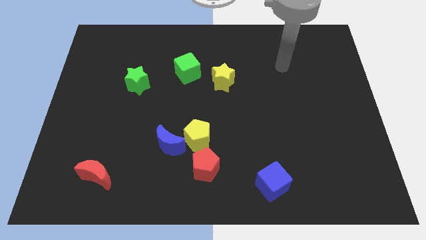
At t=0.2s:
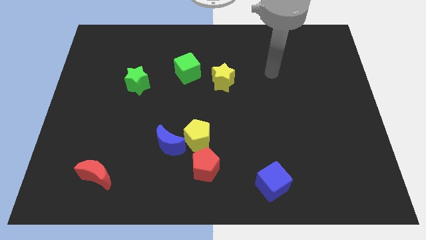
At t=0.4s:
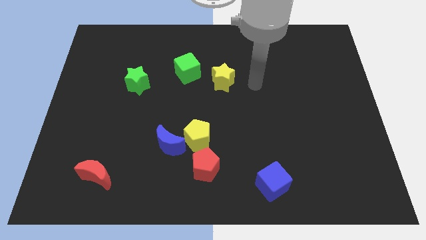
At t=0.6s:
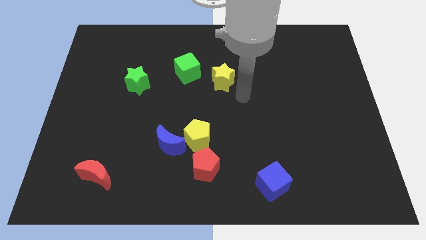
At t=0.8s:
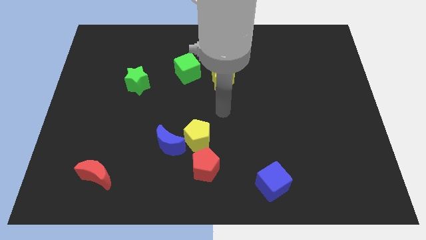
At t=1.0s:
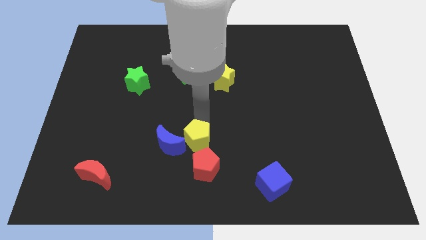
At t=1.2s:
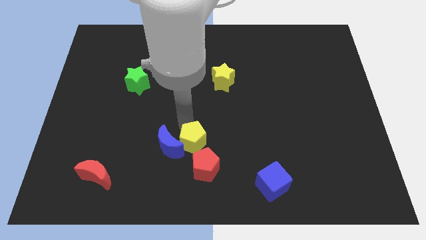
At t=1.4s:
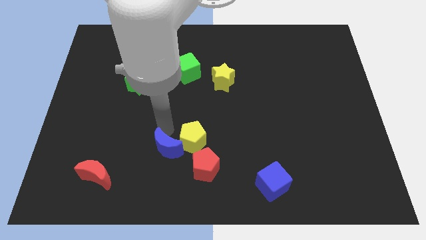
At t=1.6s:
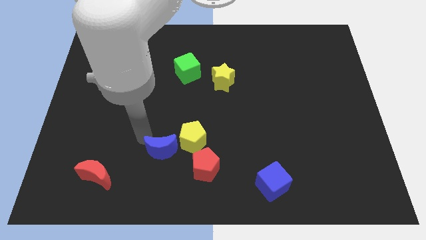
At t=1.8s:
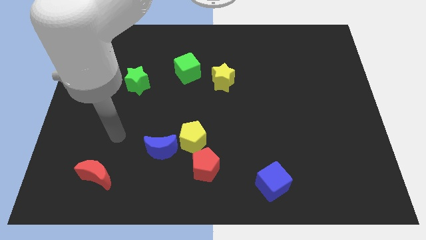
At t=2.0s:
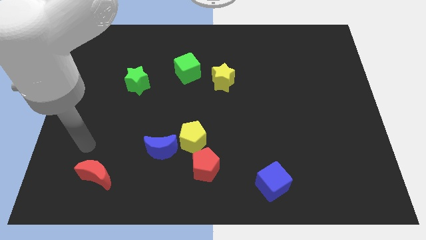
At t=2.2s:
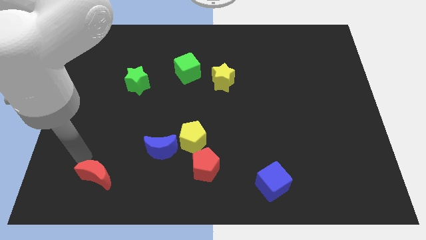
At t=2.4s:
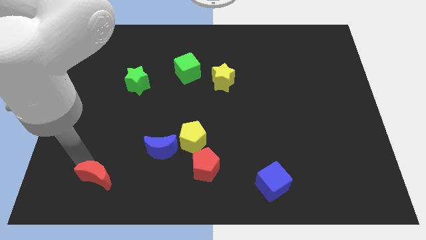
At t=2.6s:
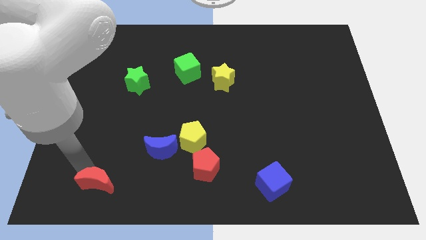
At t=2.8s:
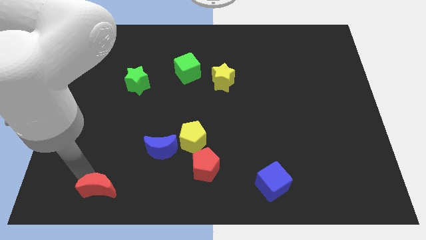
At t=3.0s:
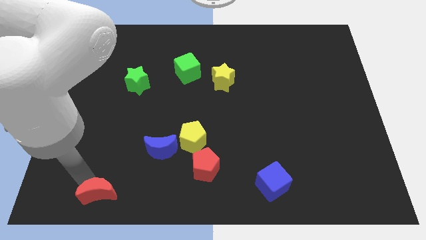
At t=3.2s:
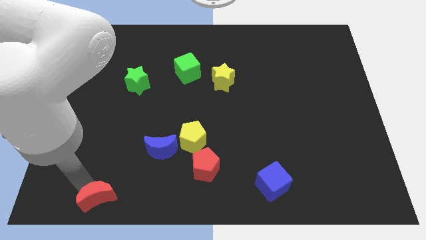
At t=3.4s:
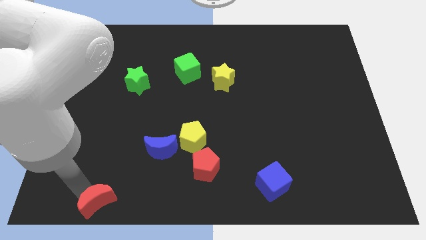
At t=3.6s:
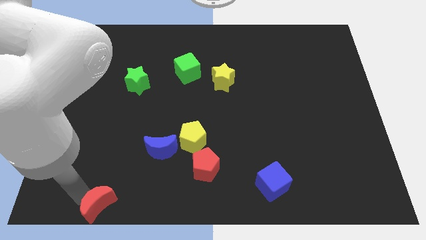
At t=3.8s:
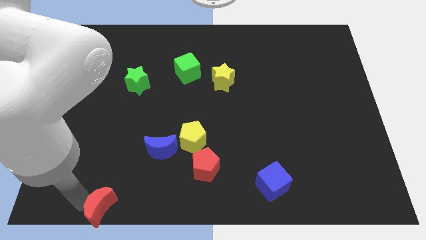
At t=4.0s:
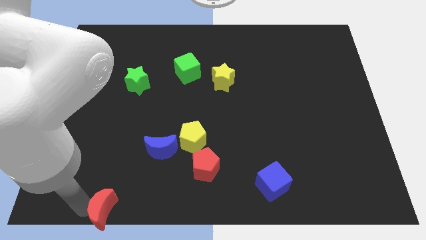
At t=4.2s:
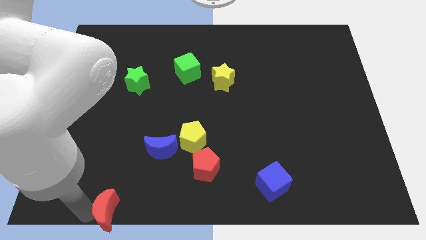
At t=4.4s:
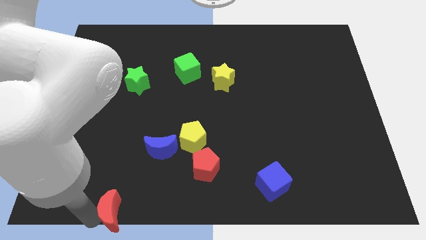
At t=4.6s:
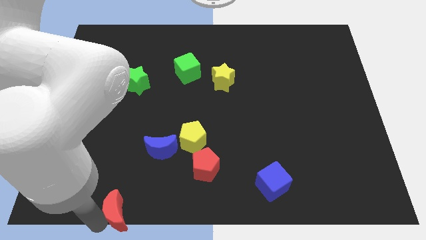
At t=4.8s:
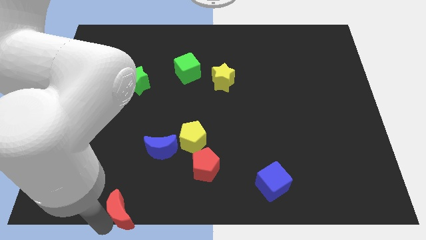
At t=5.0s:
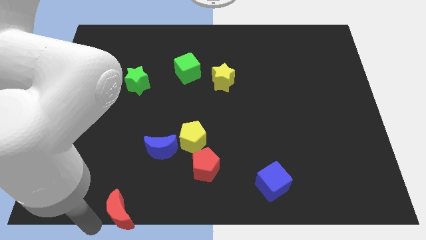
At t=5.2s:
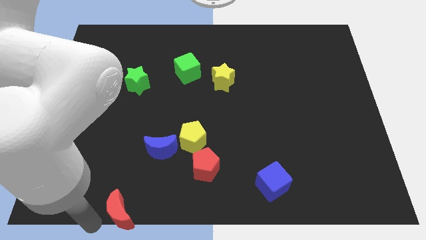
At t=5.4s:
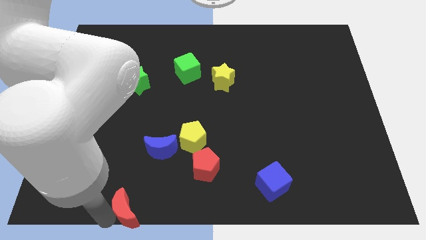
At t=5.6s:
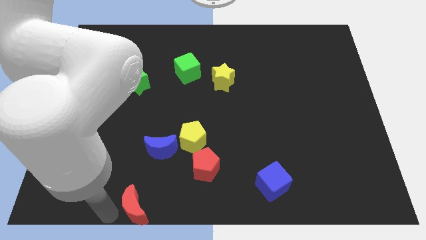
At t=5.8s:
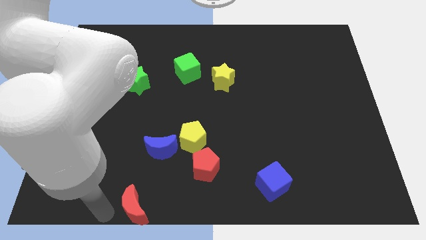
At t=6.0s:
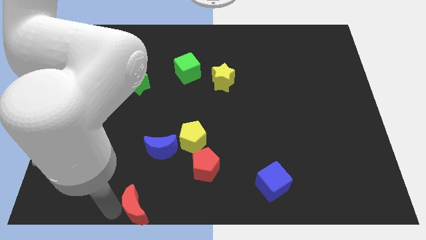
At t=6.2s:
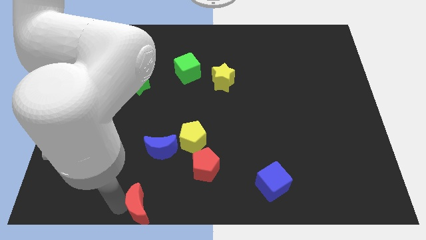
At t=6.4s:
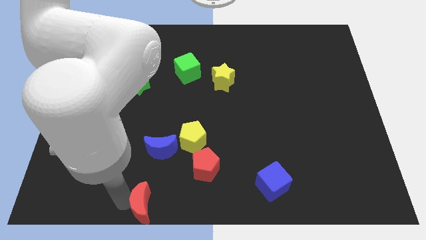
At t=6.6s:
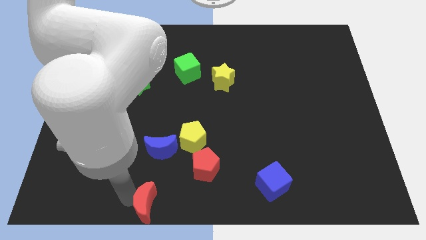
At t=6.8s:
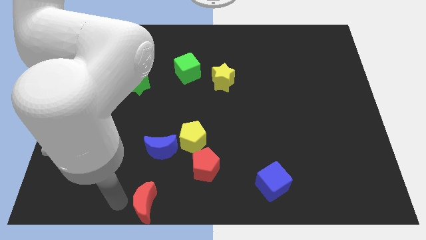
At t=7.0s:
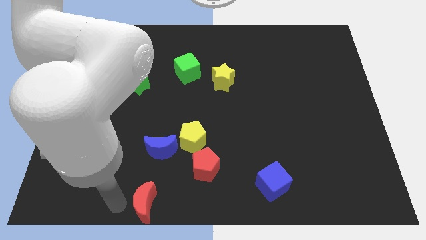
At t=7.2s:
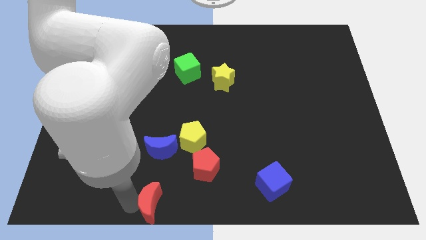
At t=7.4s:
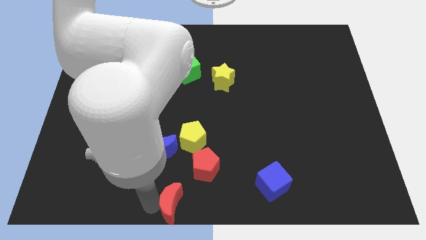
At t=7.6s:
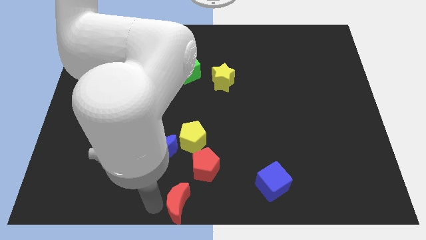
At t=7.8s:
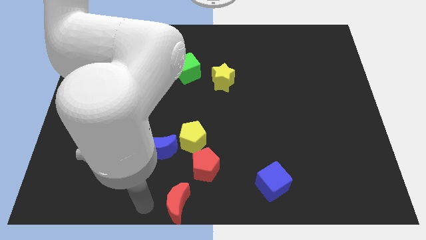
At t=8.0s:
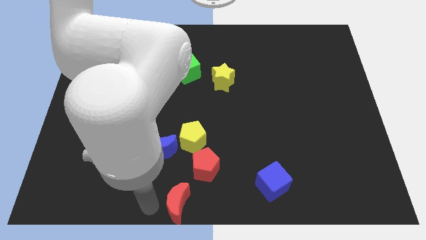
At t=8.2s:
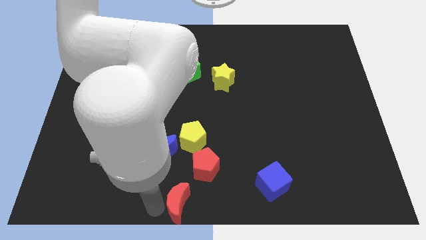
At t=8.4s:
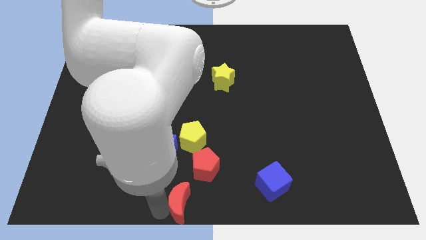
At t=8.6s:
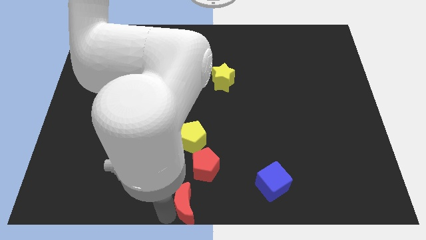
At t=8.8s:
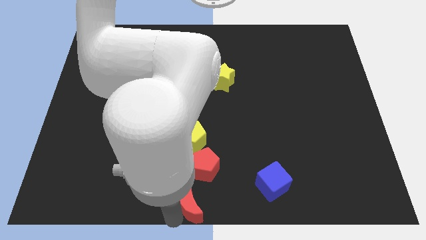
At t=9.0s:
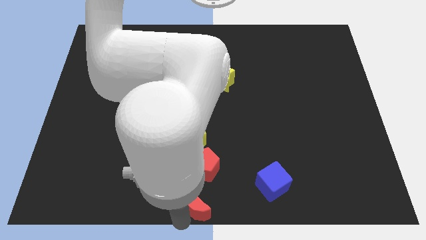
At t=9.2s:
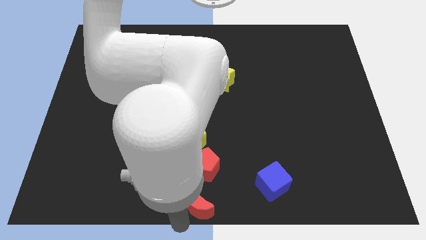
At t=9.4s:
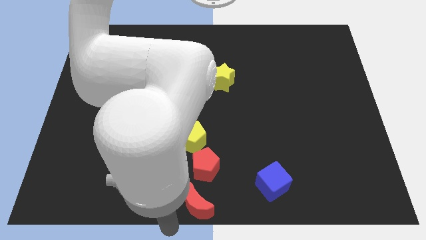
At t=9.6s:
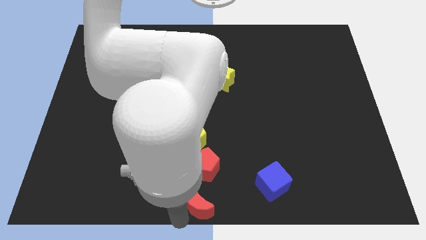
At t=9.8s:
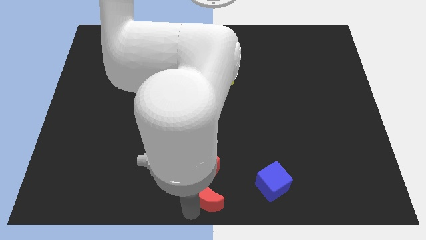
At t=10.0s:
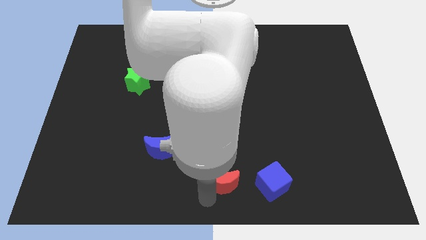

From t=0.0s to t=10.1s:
move the red moon to the right side of the red pentagon

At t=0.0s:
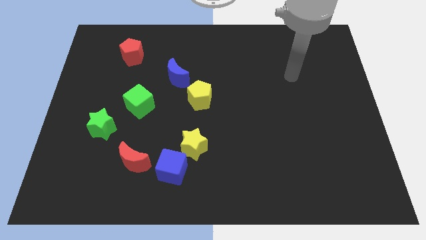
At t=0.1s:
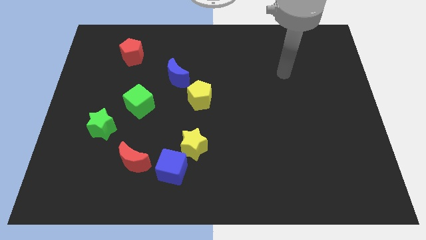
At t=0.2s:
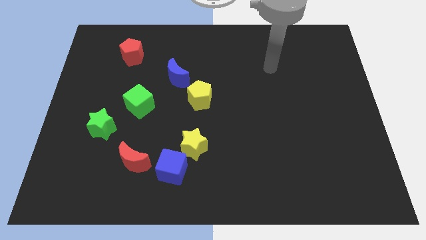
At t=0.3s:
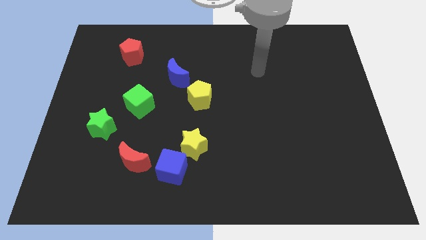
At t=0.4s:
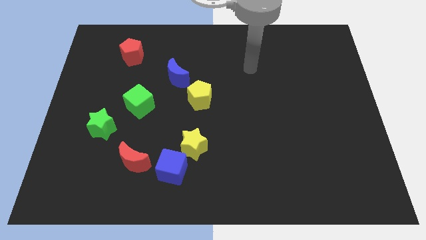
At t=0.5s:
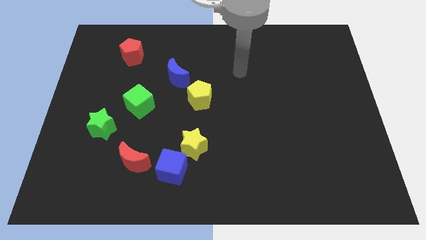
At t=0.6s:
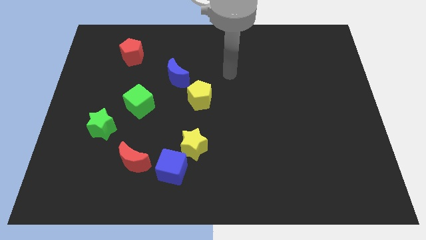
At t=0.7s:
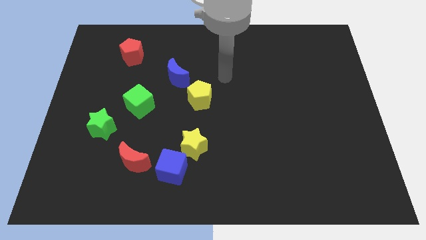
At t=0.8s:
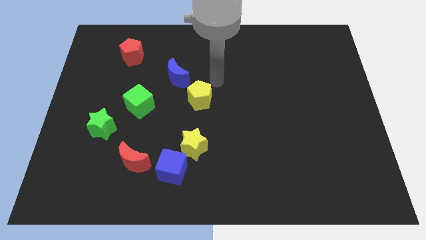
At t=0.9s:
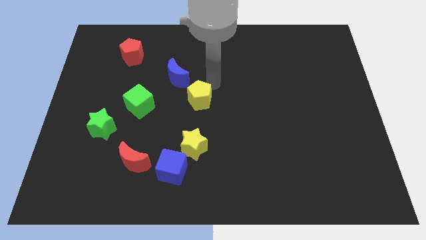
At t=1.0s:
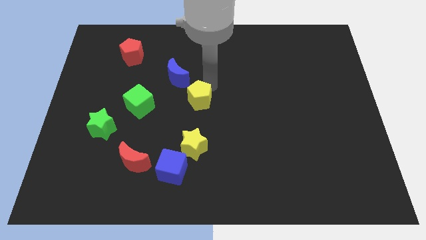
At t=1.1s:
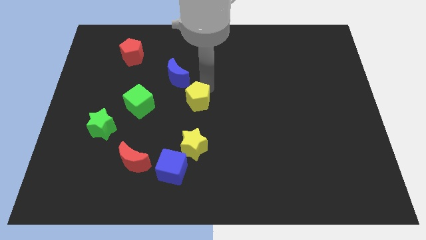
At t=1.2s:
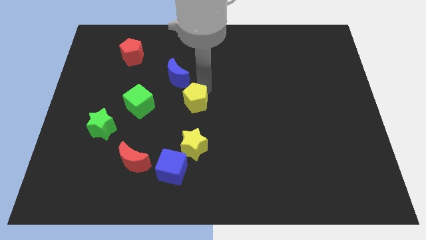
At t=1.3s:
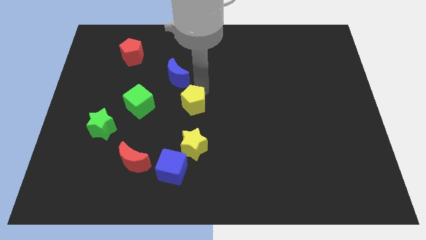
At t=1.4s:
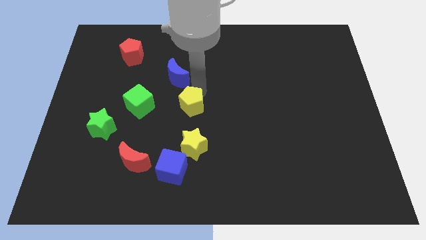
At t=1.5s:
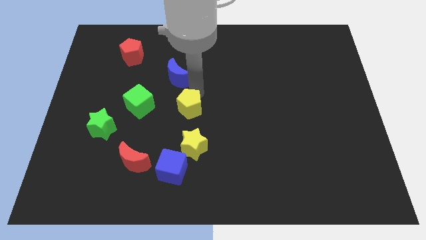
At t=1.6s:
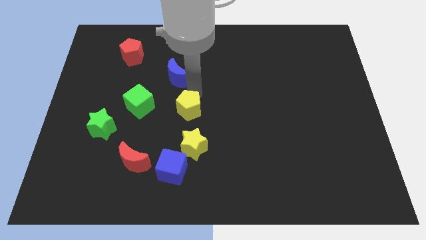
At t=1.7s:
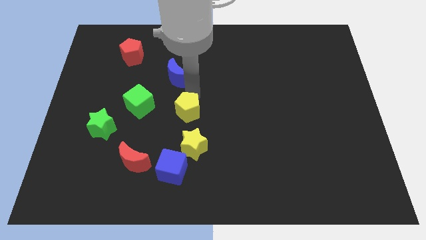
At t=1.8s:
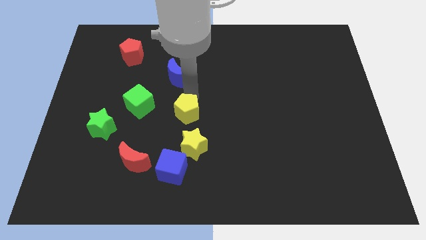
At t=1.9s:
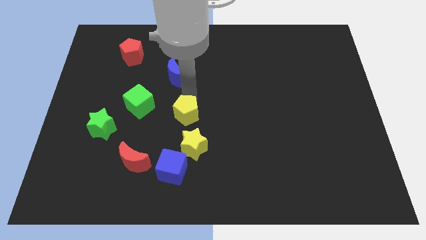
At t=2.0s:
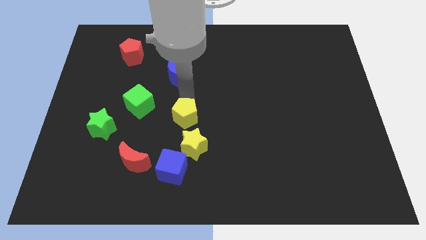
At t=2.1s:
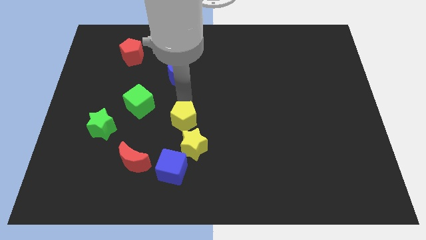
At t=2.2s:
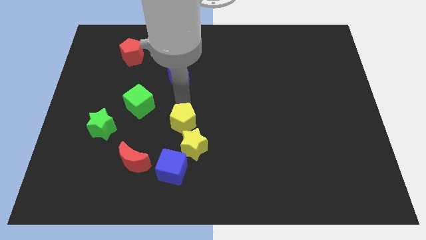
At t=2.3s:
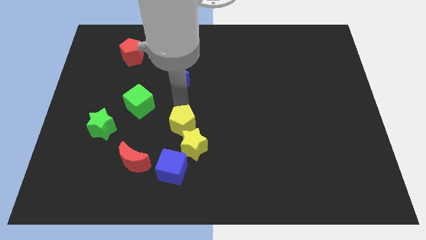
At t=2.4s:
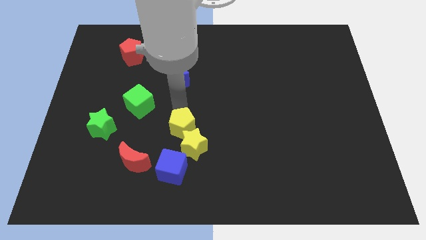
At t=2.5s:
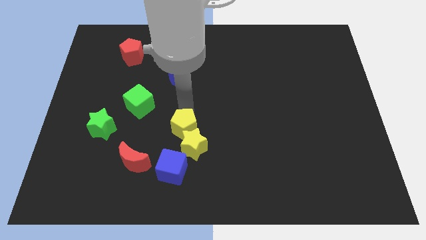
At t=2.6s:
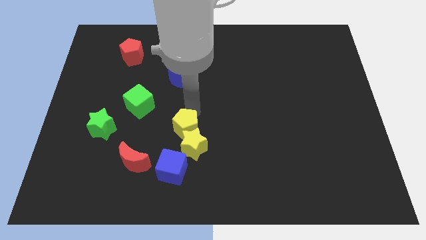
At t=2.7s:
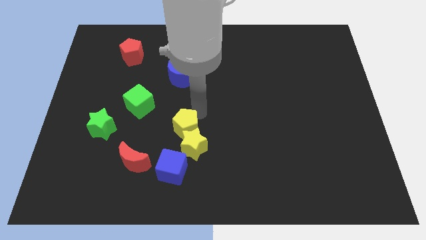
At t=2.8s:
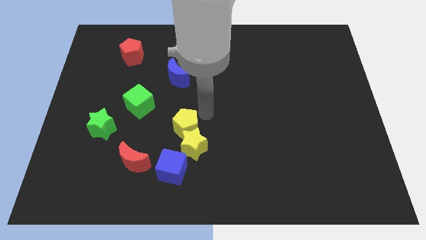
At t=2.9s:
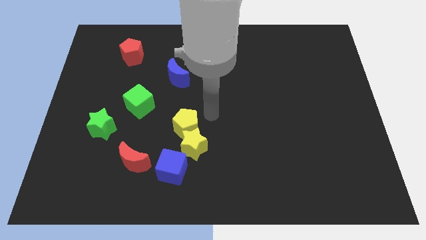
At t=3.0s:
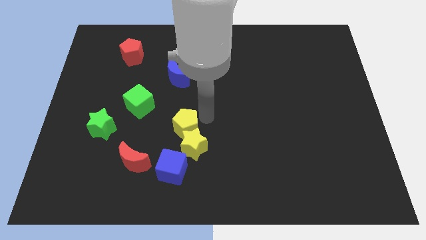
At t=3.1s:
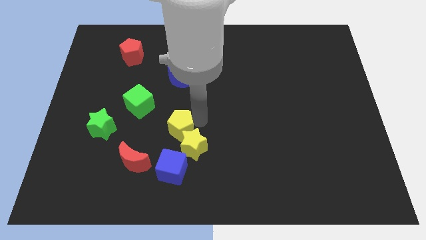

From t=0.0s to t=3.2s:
move the yellow pentagon to the top right side of the red moon
